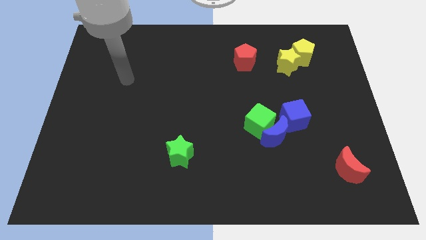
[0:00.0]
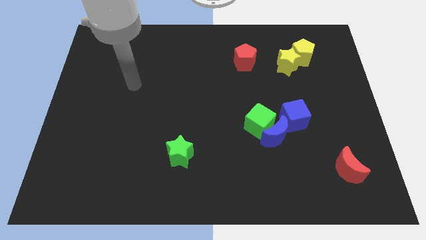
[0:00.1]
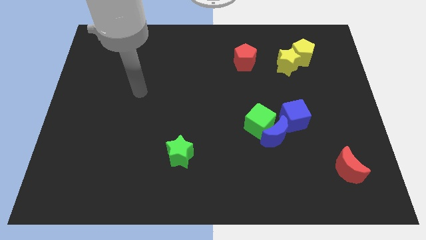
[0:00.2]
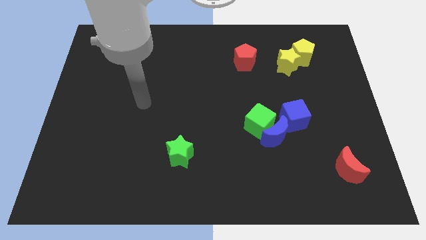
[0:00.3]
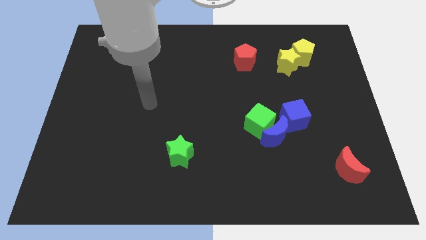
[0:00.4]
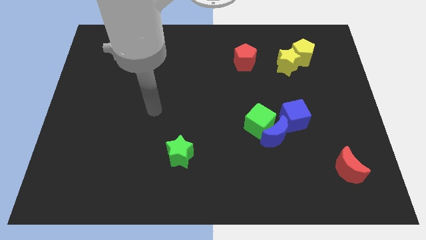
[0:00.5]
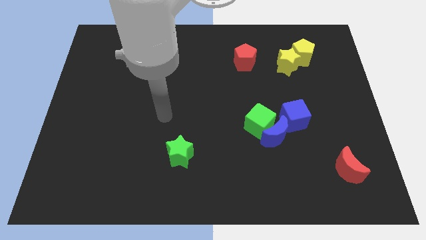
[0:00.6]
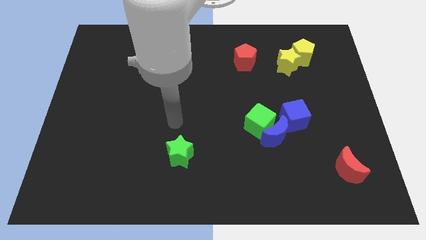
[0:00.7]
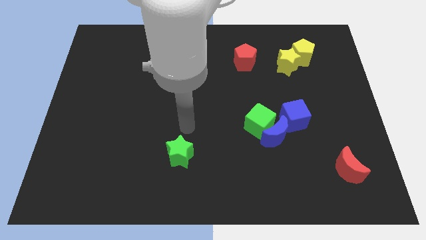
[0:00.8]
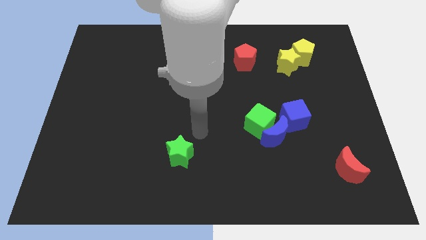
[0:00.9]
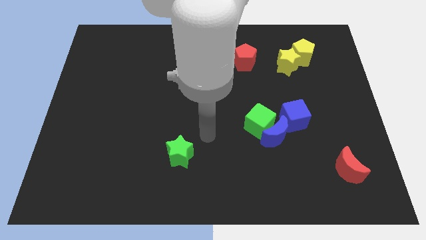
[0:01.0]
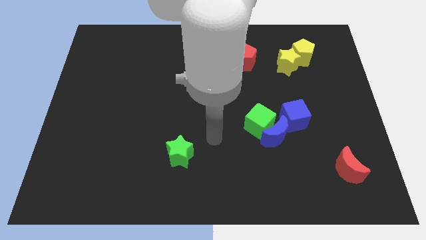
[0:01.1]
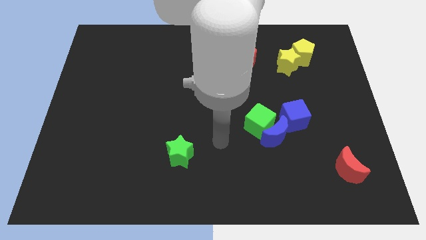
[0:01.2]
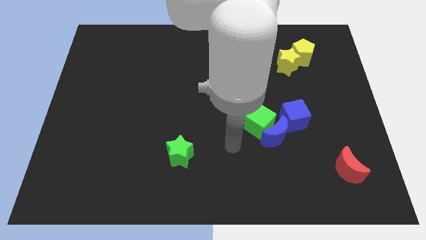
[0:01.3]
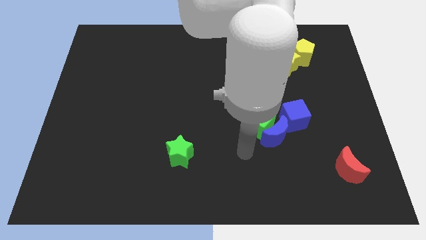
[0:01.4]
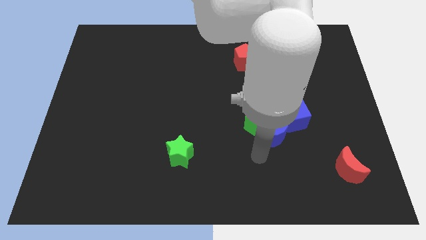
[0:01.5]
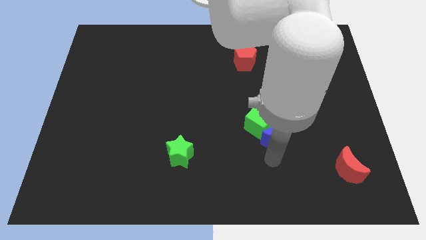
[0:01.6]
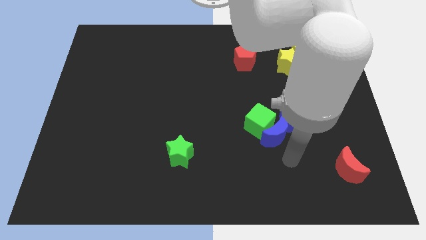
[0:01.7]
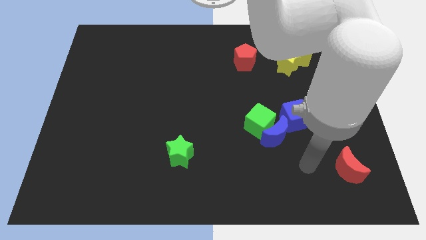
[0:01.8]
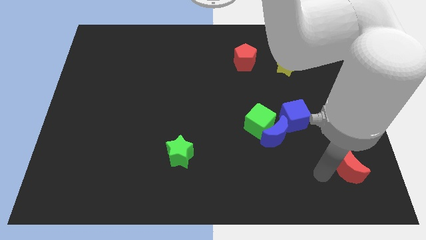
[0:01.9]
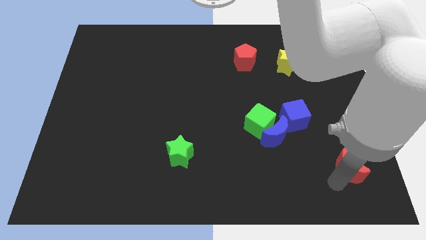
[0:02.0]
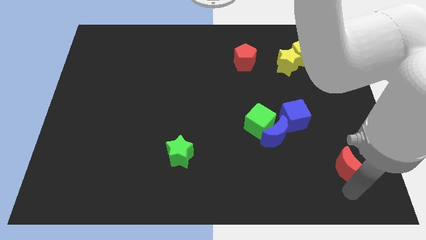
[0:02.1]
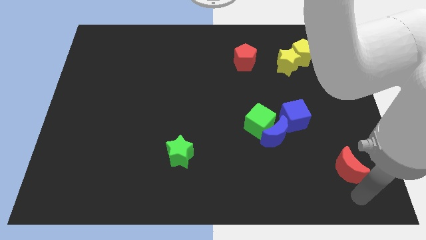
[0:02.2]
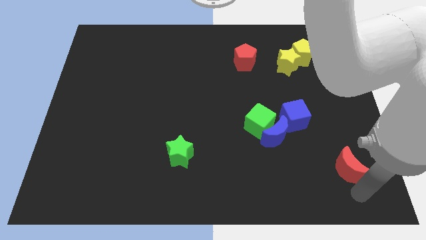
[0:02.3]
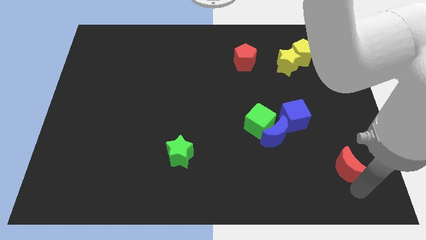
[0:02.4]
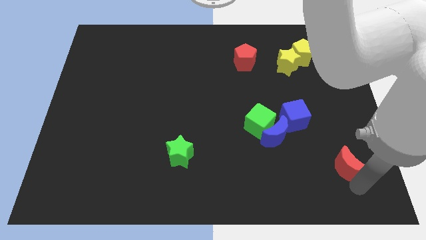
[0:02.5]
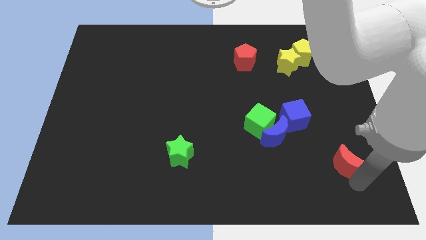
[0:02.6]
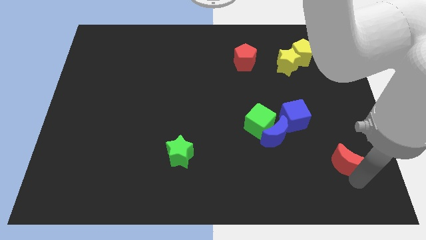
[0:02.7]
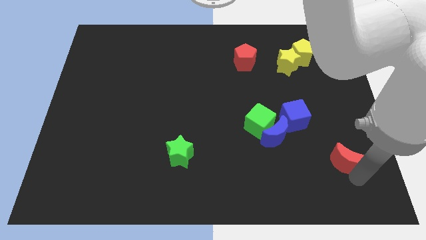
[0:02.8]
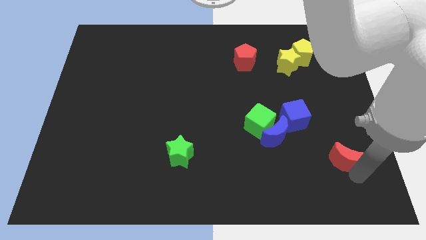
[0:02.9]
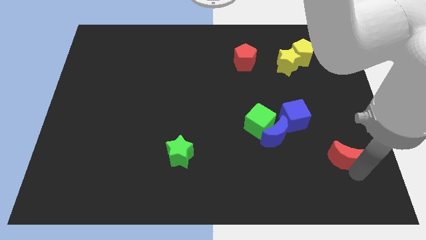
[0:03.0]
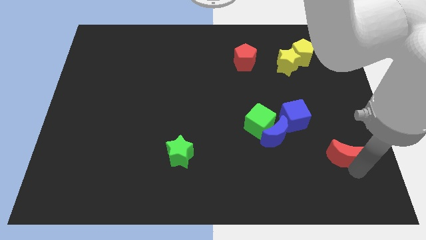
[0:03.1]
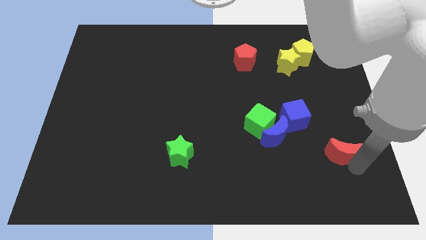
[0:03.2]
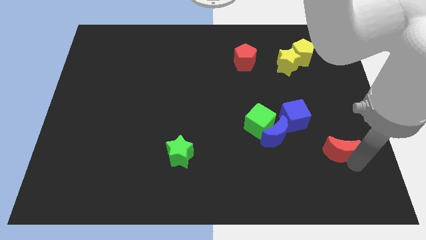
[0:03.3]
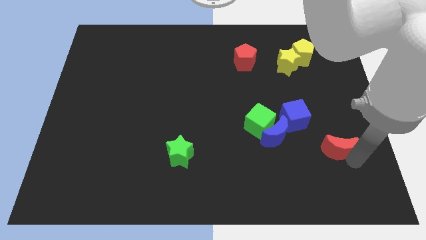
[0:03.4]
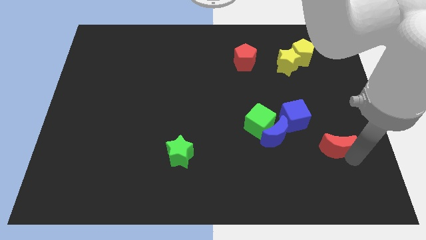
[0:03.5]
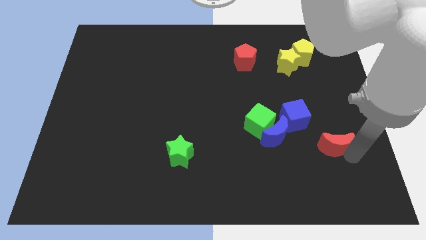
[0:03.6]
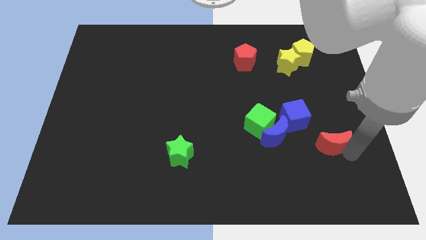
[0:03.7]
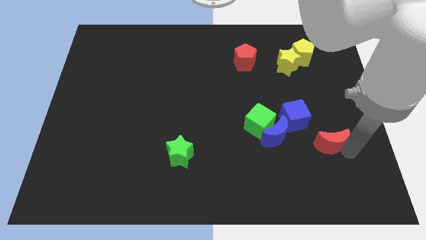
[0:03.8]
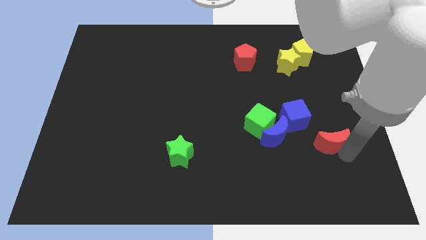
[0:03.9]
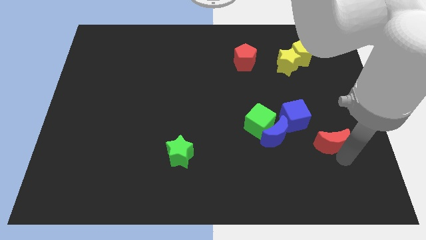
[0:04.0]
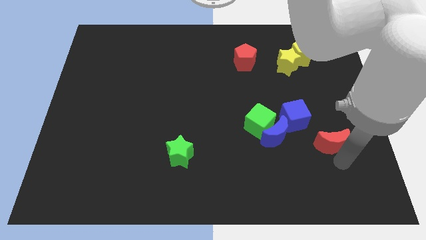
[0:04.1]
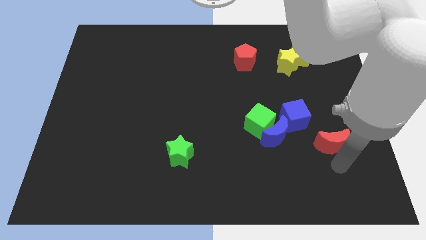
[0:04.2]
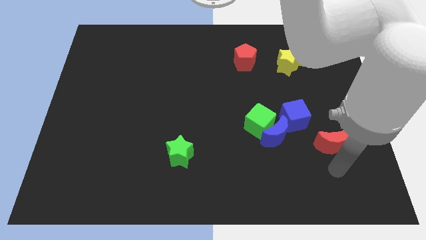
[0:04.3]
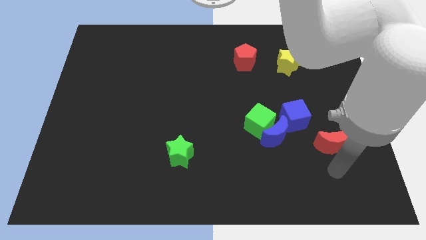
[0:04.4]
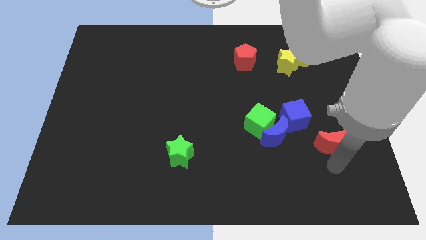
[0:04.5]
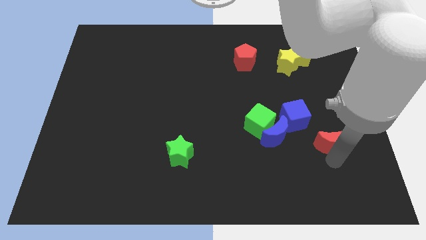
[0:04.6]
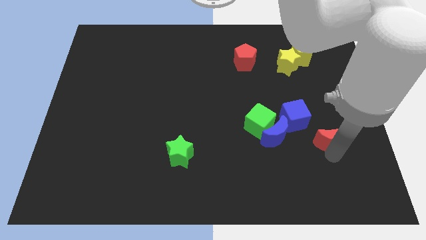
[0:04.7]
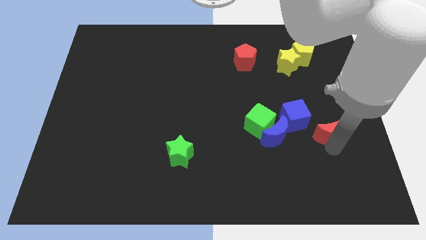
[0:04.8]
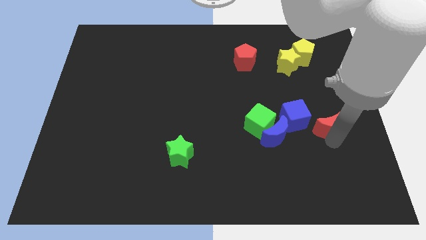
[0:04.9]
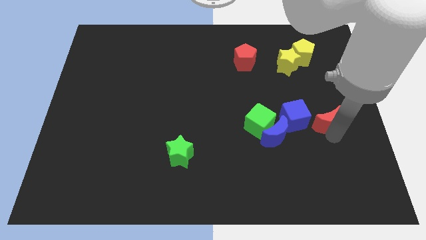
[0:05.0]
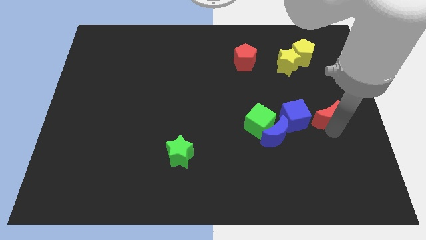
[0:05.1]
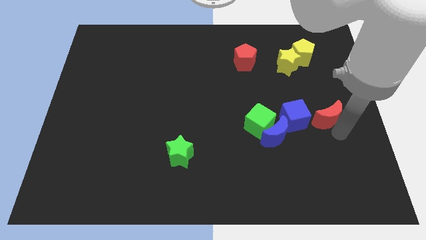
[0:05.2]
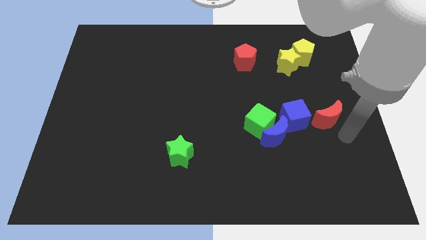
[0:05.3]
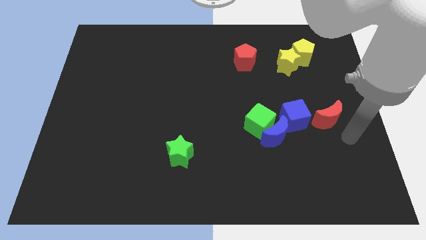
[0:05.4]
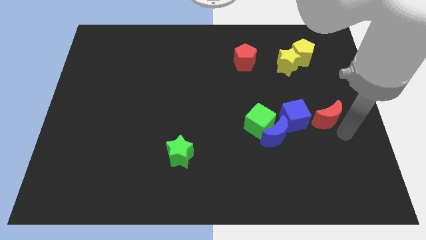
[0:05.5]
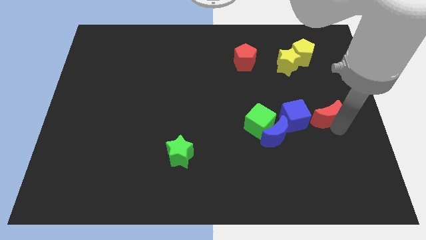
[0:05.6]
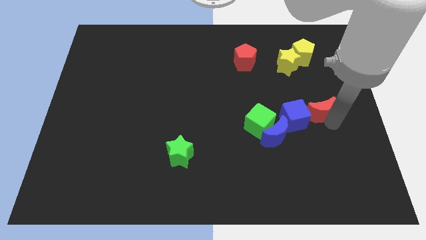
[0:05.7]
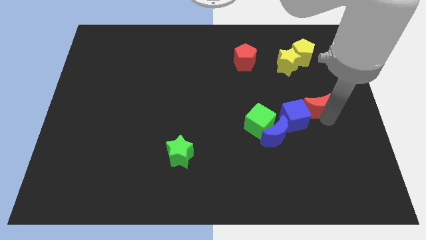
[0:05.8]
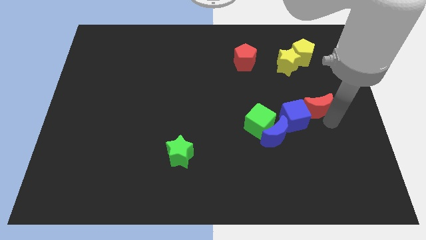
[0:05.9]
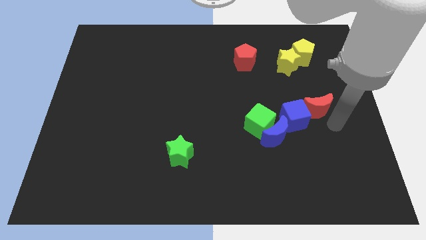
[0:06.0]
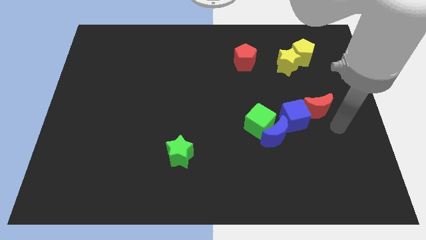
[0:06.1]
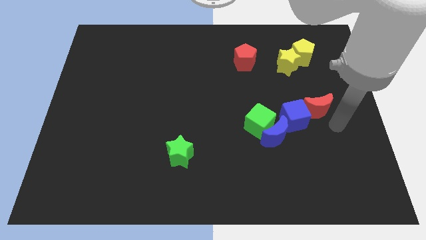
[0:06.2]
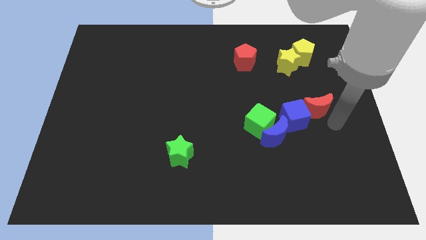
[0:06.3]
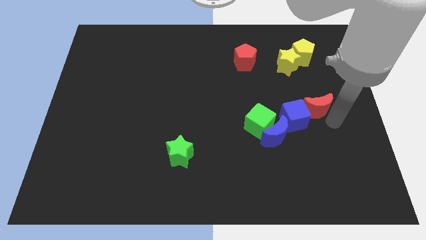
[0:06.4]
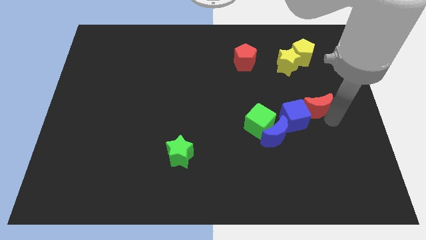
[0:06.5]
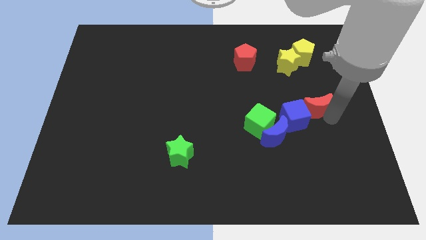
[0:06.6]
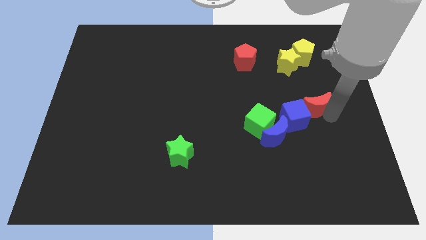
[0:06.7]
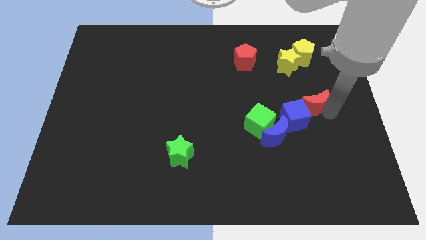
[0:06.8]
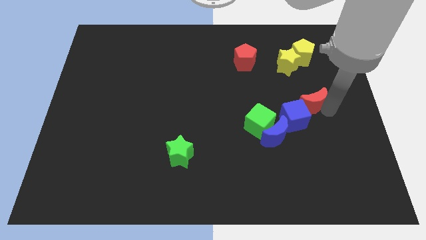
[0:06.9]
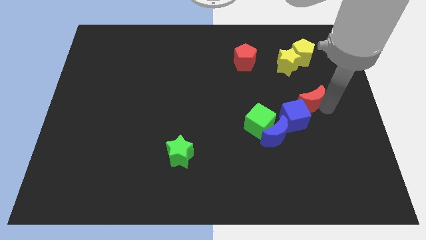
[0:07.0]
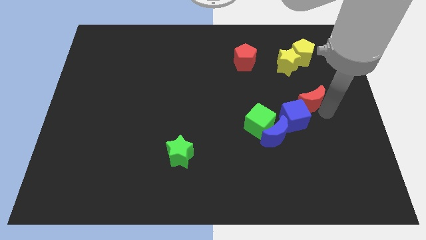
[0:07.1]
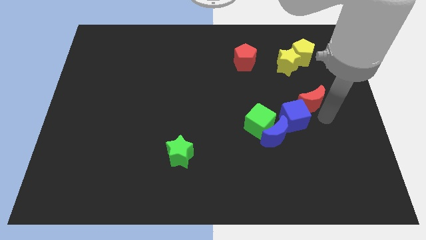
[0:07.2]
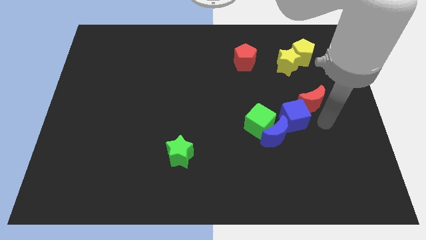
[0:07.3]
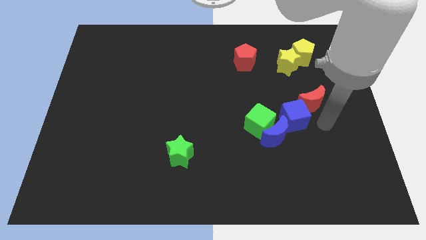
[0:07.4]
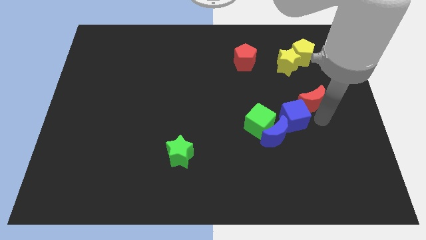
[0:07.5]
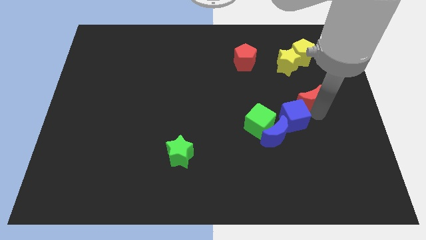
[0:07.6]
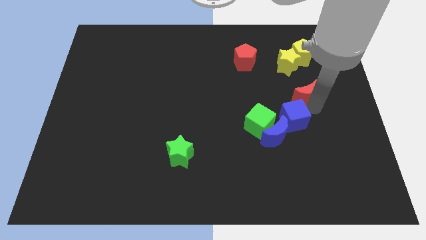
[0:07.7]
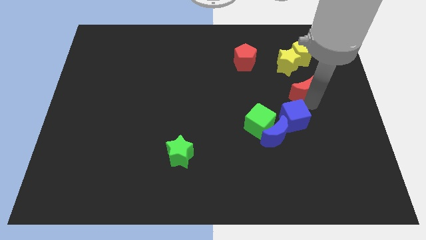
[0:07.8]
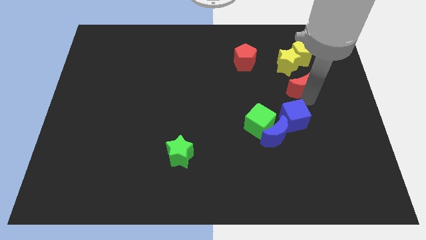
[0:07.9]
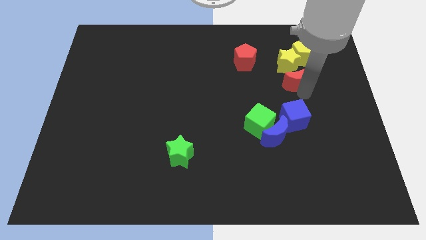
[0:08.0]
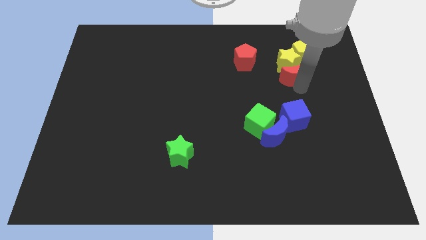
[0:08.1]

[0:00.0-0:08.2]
move the red moon close to the yellow star
